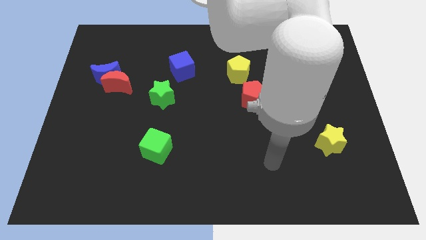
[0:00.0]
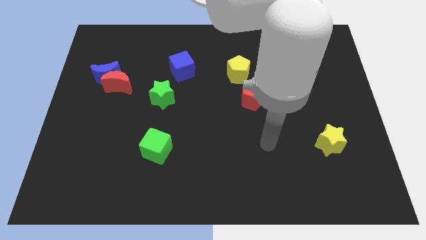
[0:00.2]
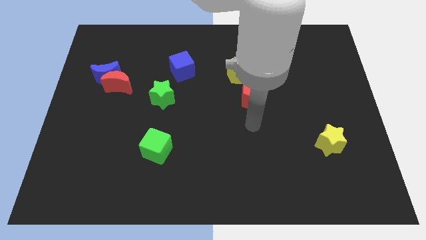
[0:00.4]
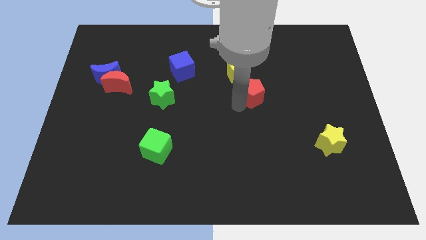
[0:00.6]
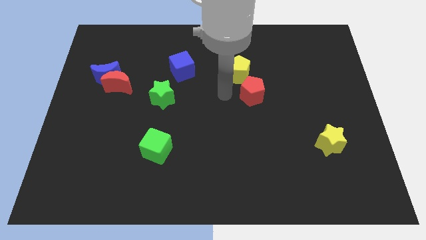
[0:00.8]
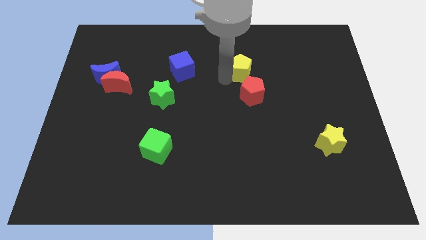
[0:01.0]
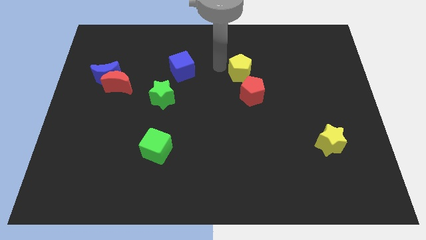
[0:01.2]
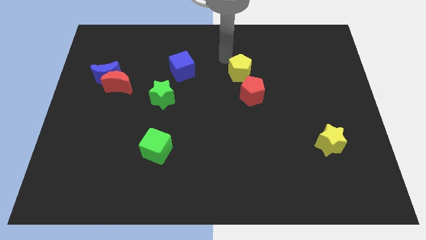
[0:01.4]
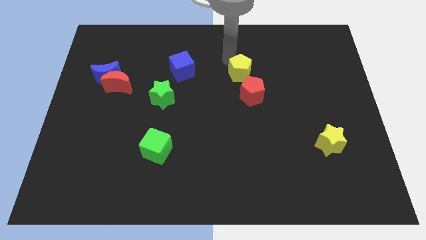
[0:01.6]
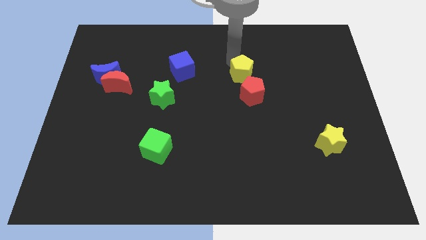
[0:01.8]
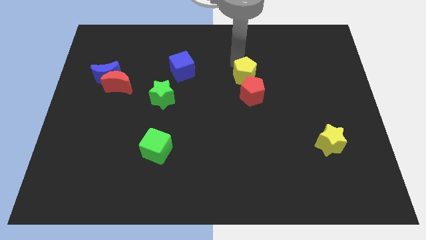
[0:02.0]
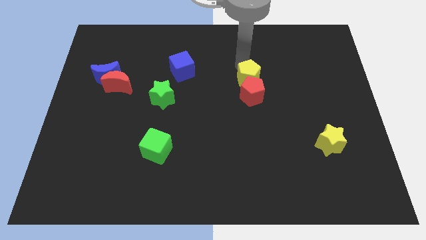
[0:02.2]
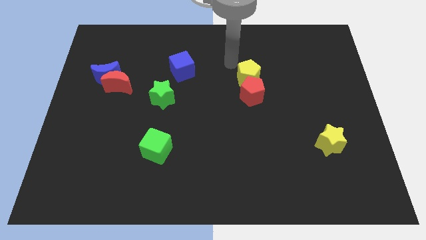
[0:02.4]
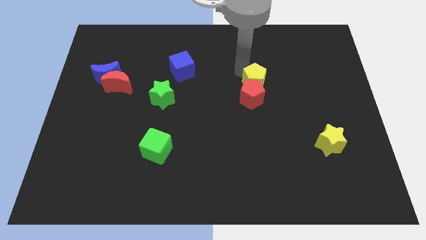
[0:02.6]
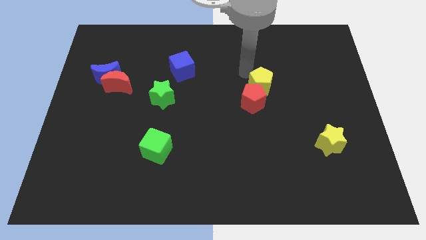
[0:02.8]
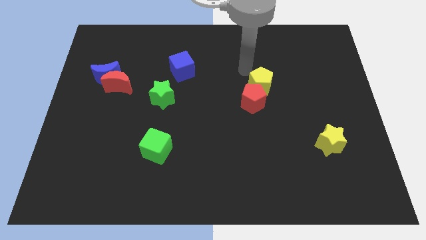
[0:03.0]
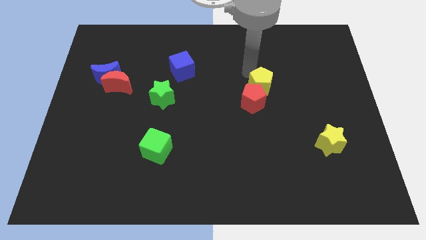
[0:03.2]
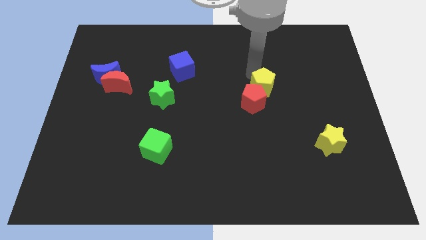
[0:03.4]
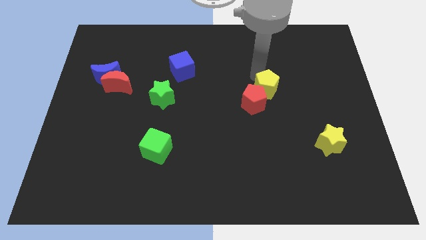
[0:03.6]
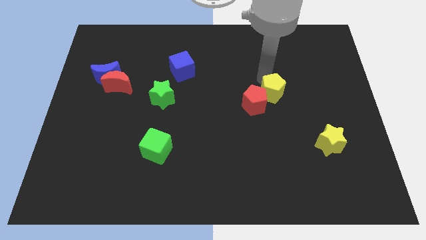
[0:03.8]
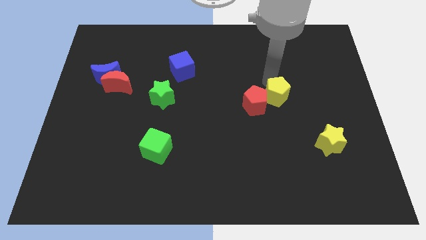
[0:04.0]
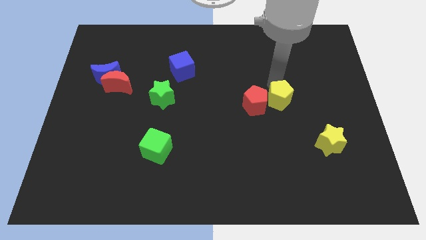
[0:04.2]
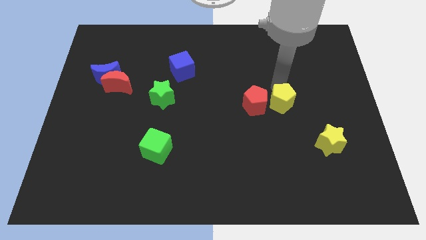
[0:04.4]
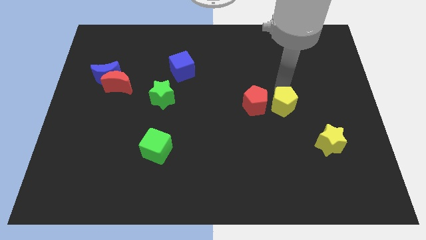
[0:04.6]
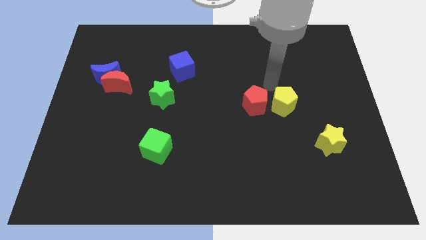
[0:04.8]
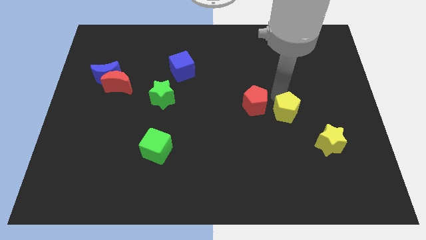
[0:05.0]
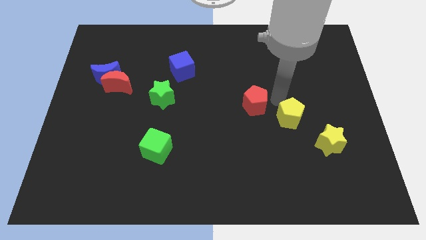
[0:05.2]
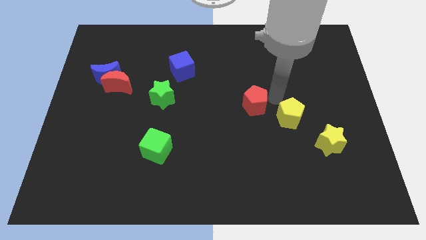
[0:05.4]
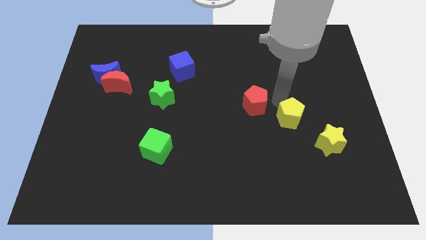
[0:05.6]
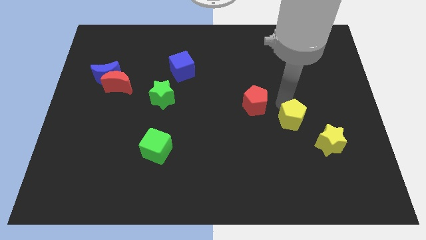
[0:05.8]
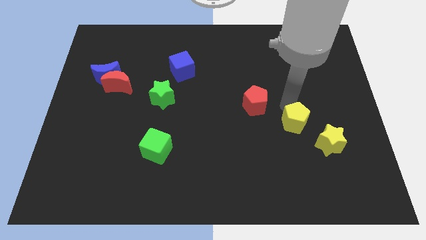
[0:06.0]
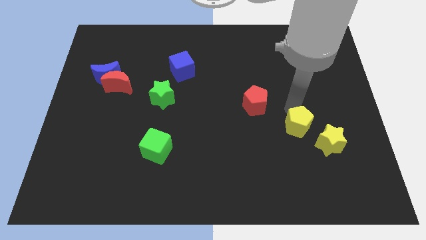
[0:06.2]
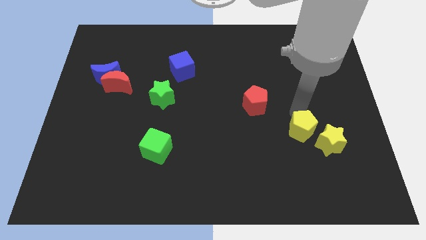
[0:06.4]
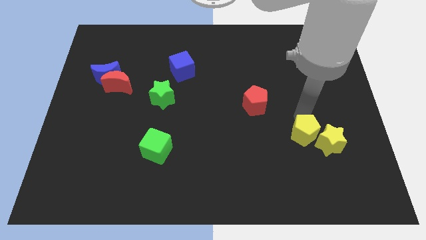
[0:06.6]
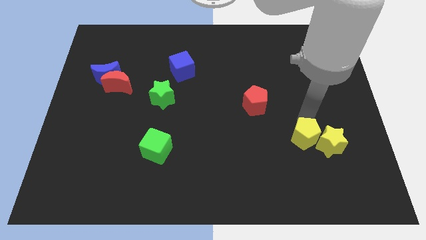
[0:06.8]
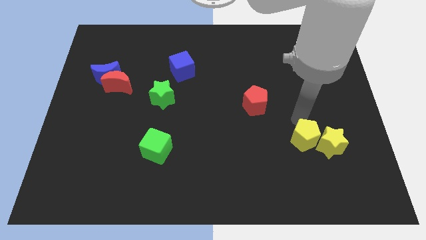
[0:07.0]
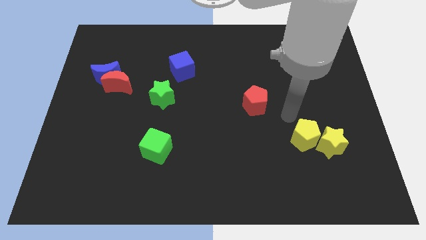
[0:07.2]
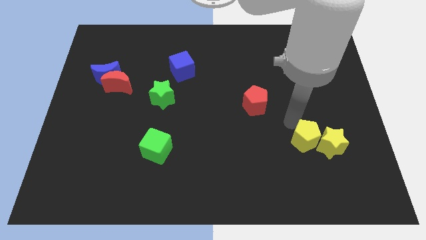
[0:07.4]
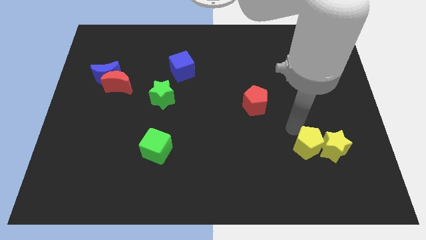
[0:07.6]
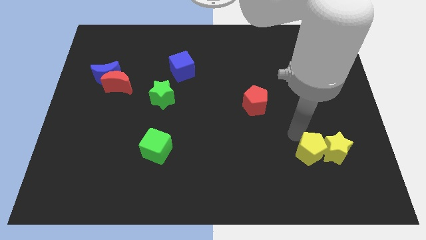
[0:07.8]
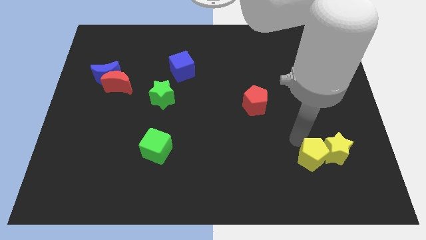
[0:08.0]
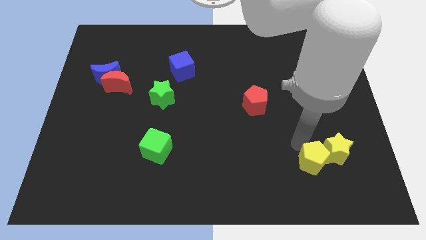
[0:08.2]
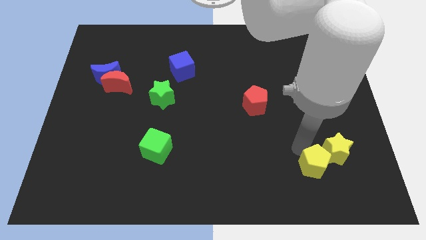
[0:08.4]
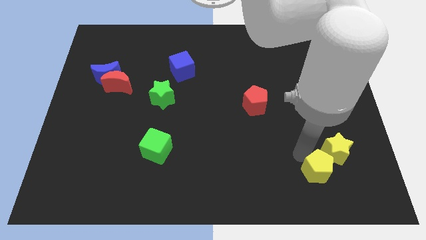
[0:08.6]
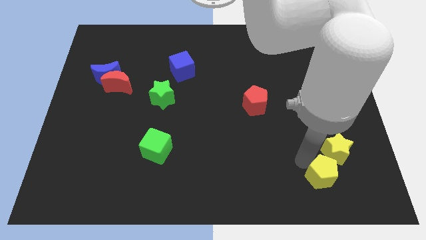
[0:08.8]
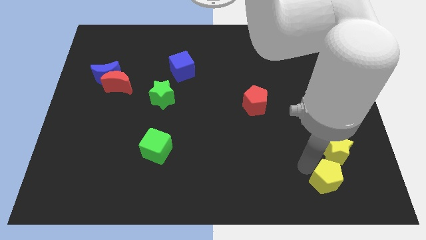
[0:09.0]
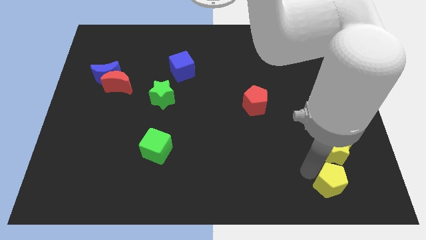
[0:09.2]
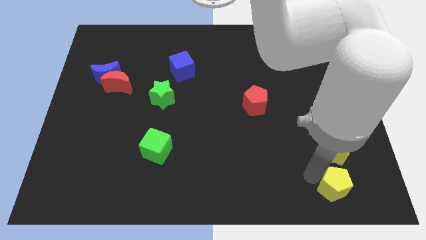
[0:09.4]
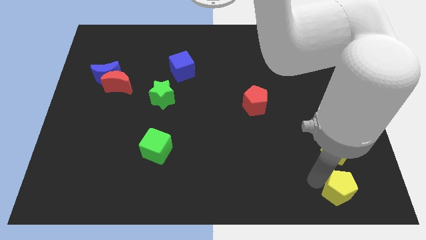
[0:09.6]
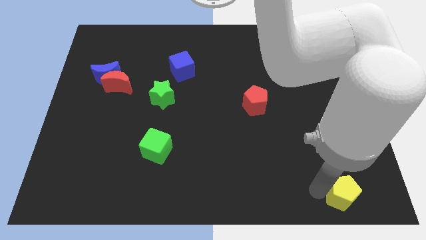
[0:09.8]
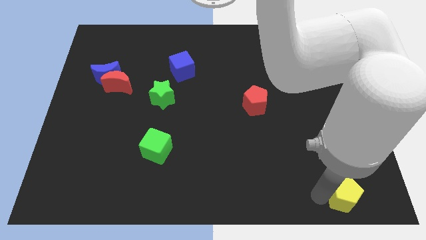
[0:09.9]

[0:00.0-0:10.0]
move the yellow pentagon to the bottom right

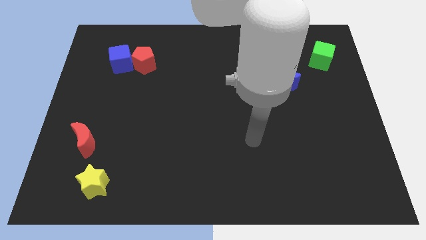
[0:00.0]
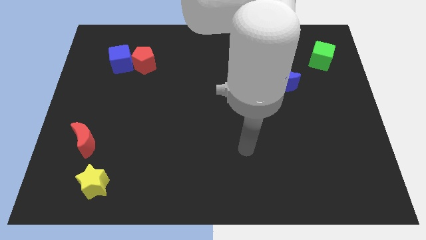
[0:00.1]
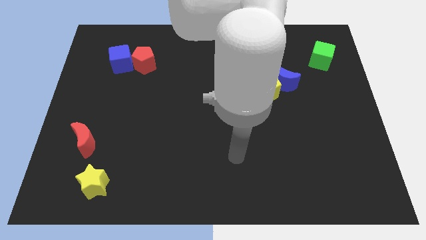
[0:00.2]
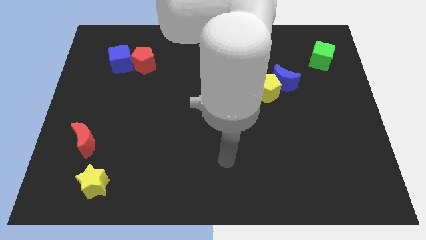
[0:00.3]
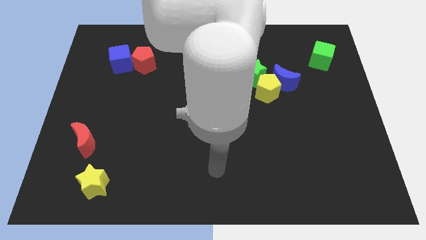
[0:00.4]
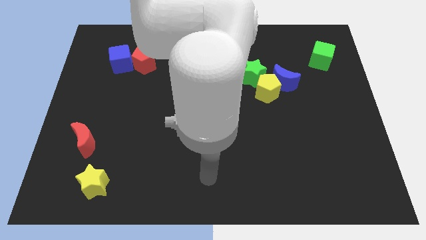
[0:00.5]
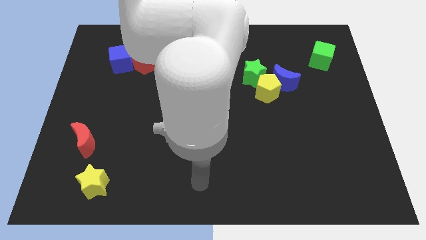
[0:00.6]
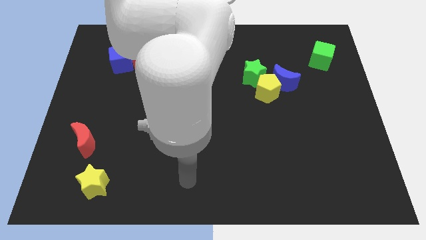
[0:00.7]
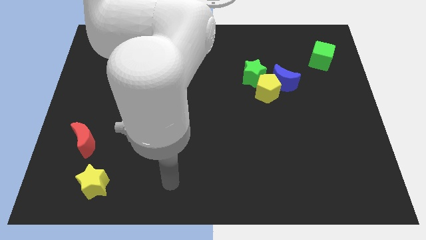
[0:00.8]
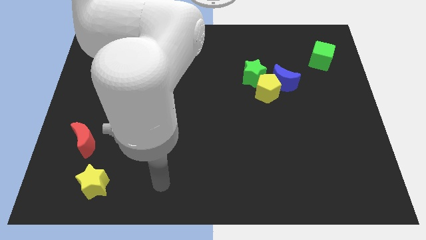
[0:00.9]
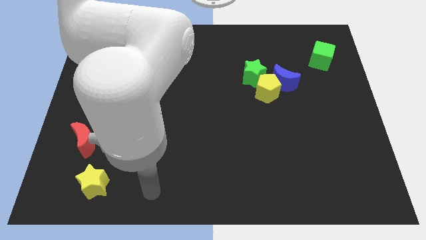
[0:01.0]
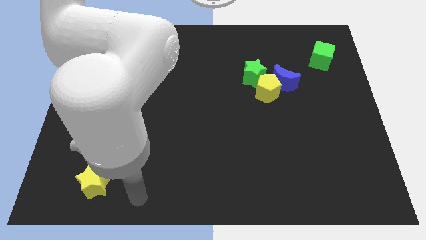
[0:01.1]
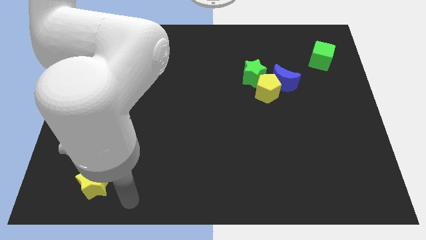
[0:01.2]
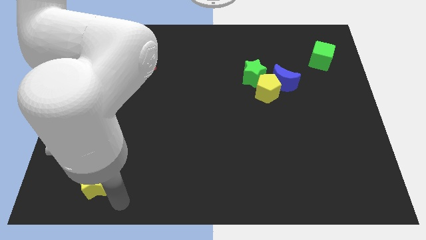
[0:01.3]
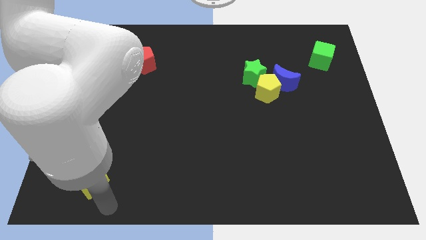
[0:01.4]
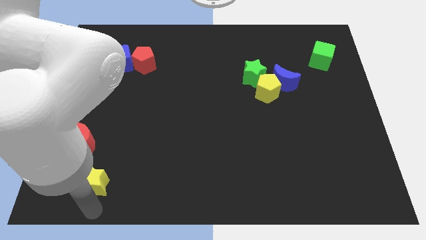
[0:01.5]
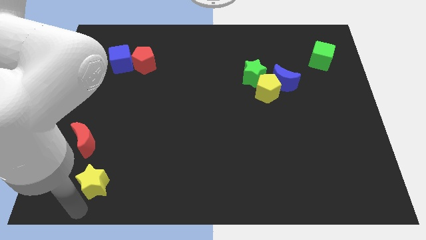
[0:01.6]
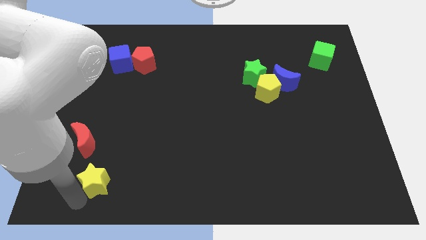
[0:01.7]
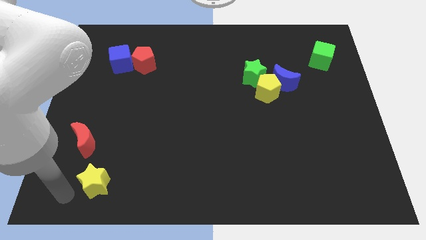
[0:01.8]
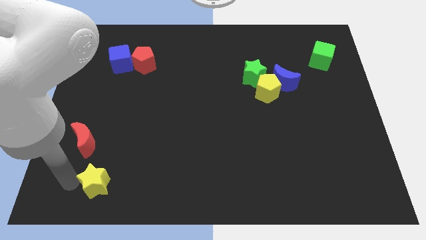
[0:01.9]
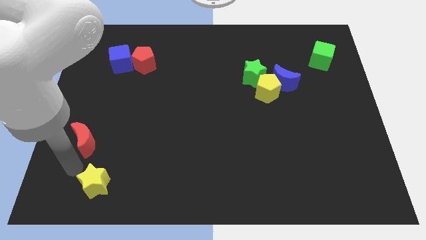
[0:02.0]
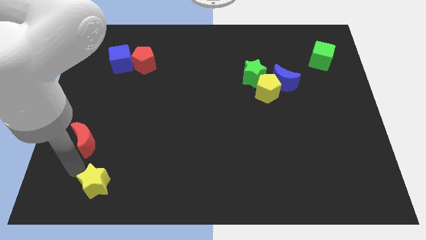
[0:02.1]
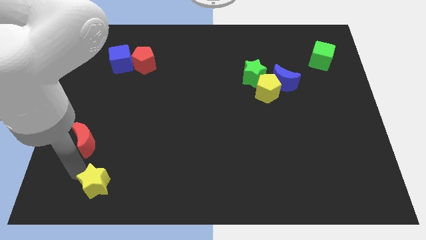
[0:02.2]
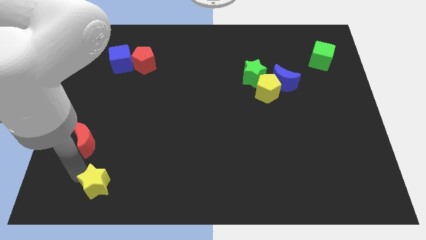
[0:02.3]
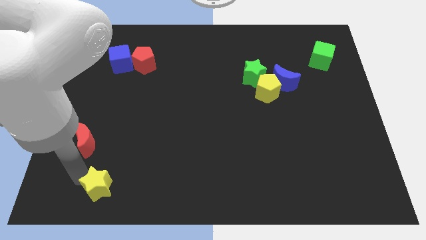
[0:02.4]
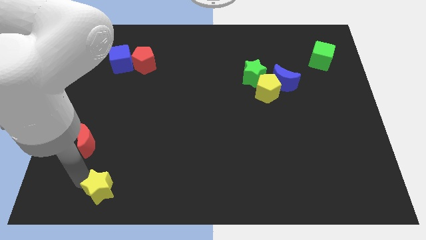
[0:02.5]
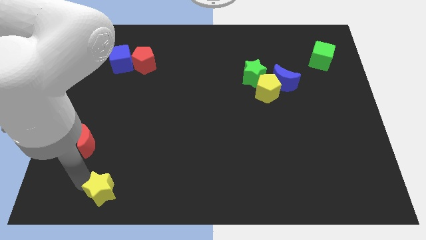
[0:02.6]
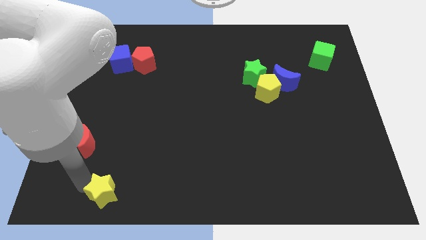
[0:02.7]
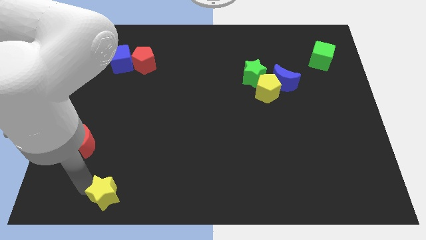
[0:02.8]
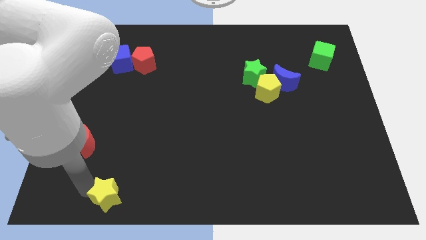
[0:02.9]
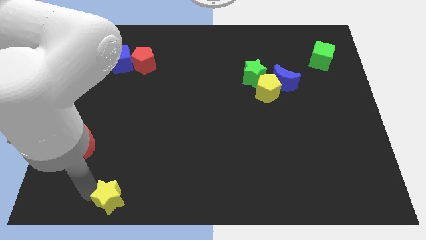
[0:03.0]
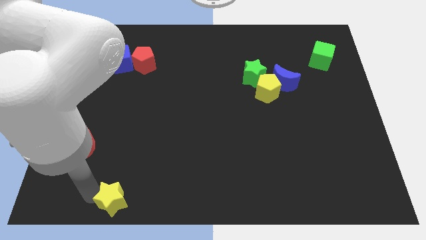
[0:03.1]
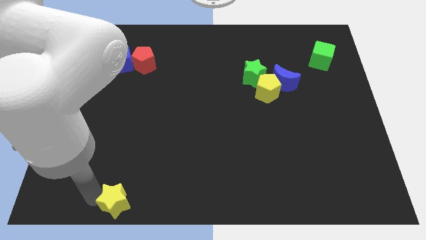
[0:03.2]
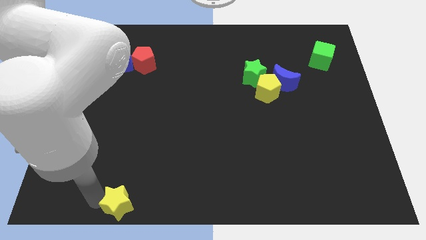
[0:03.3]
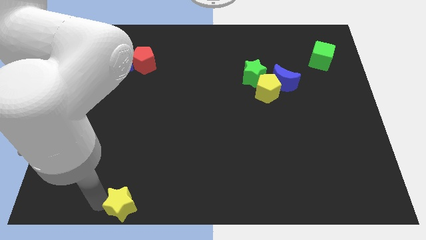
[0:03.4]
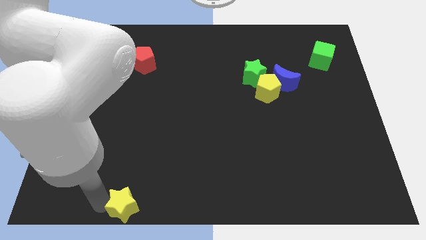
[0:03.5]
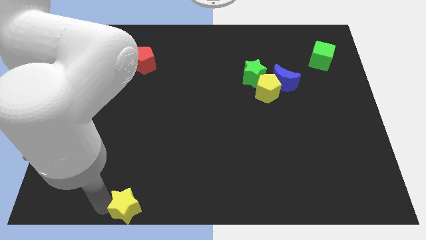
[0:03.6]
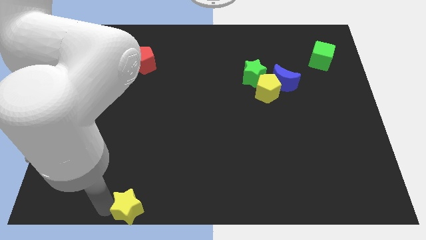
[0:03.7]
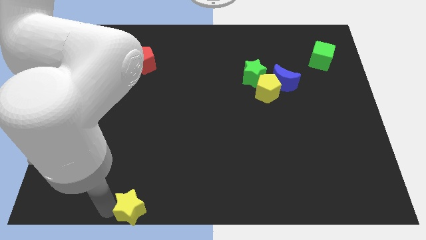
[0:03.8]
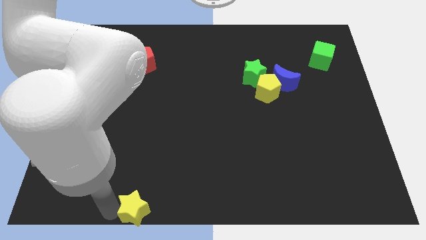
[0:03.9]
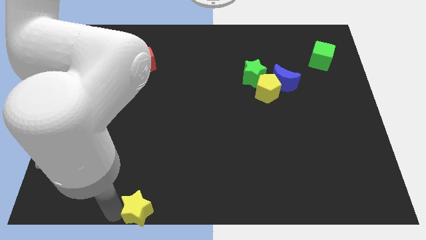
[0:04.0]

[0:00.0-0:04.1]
put the yellow star to the bottom side
